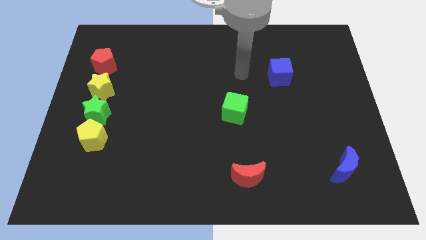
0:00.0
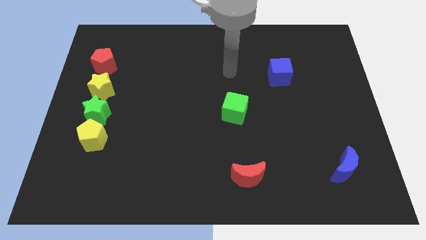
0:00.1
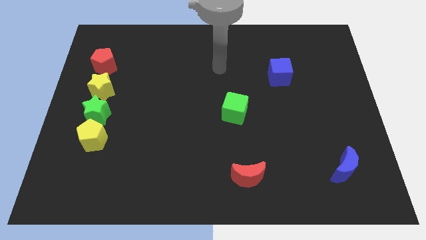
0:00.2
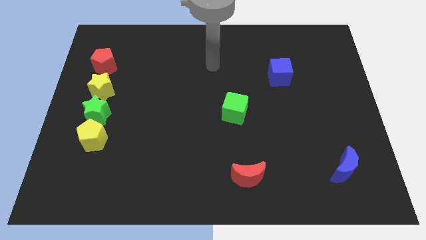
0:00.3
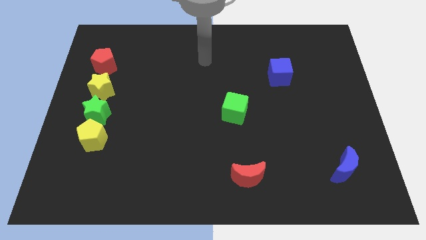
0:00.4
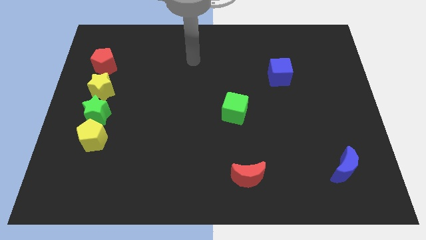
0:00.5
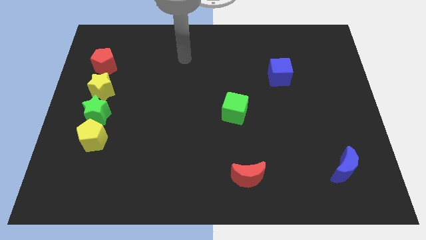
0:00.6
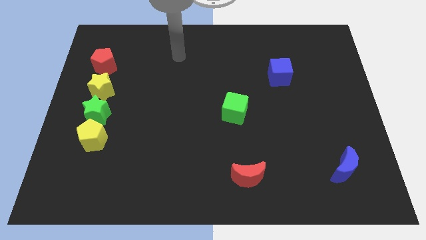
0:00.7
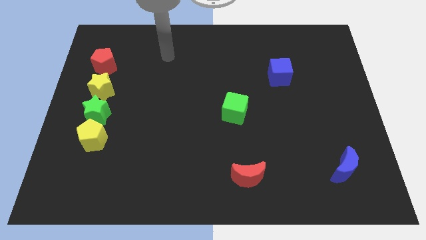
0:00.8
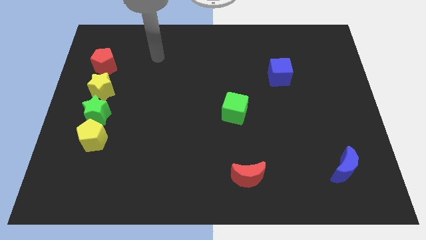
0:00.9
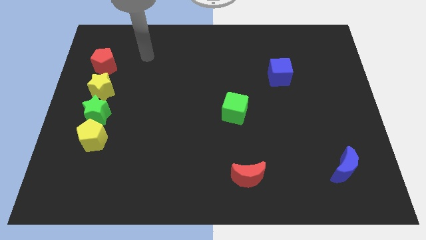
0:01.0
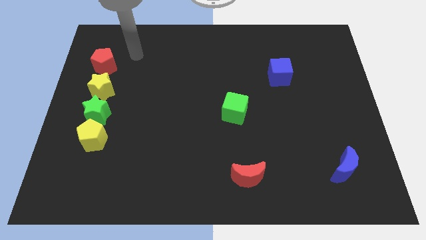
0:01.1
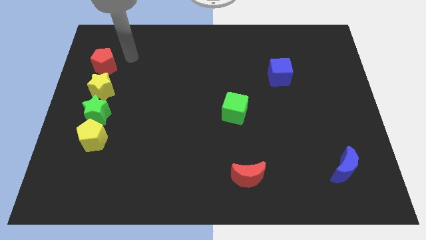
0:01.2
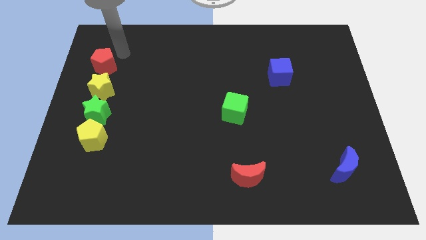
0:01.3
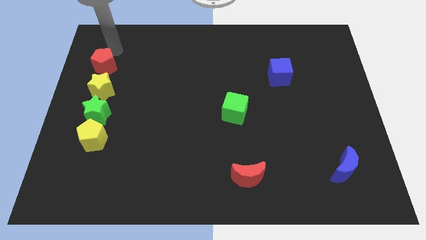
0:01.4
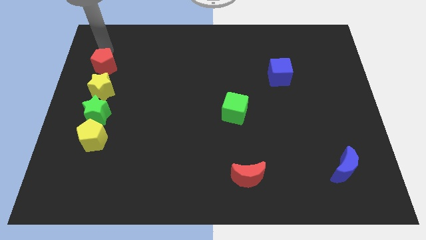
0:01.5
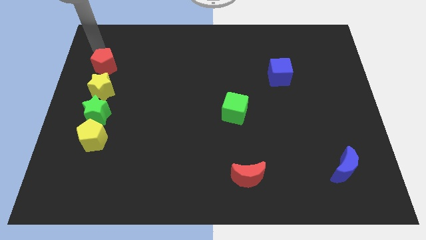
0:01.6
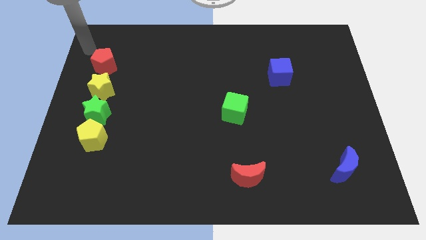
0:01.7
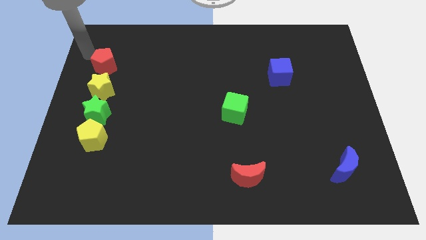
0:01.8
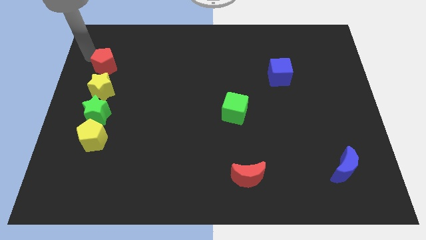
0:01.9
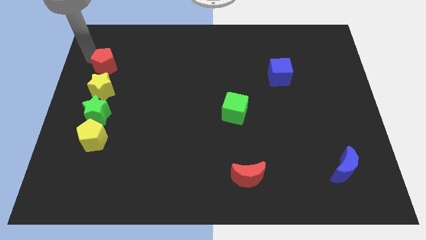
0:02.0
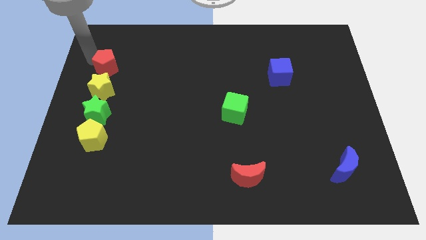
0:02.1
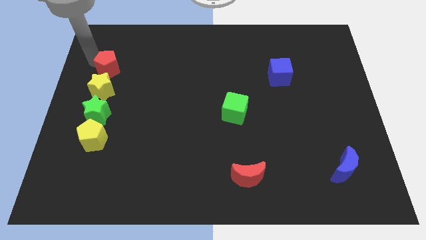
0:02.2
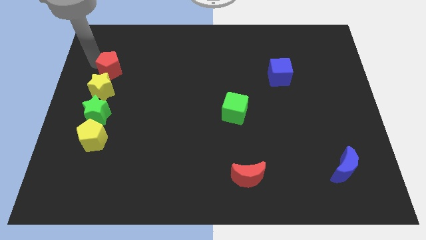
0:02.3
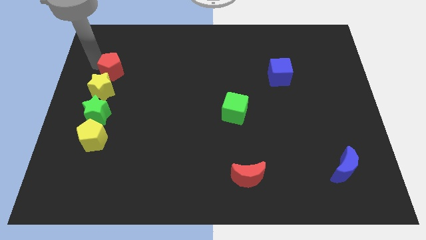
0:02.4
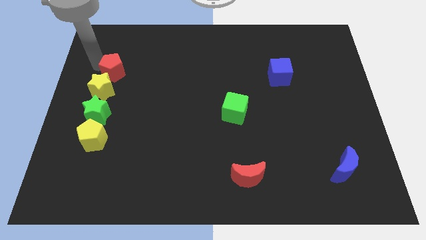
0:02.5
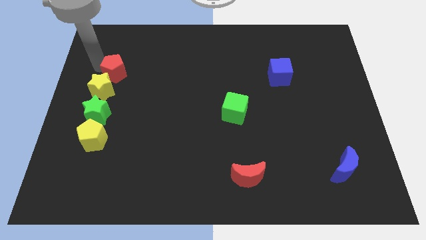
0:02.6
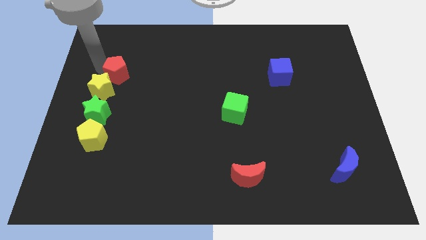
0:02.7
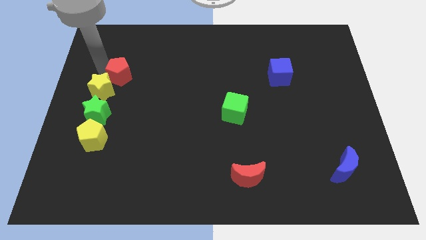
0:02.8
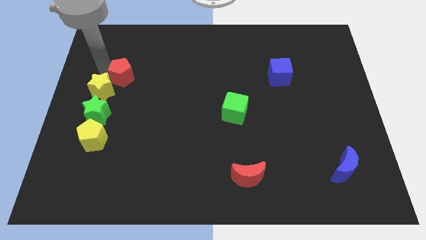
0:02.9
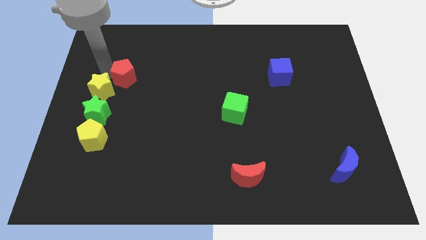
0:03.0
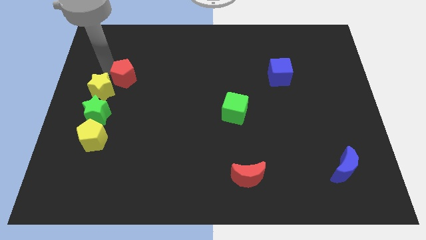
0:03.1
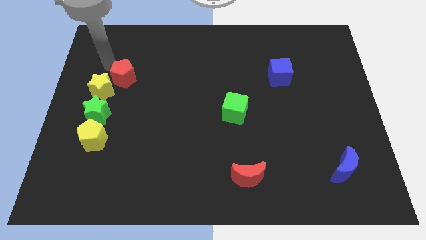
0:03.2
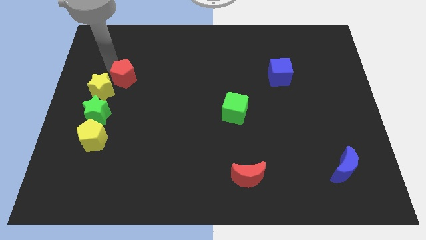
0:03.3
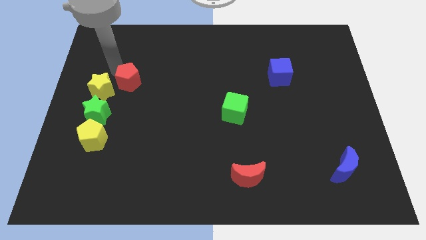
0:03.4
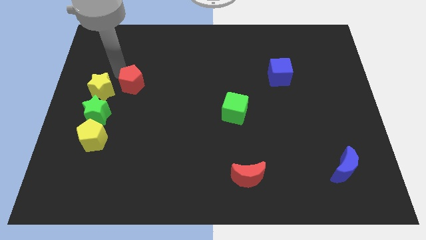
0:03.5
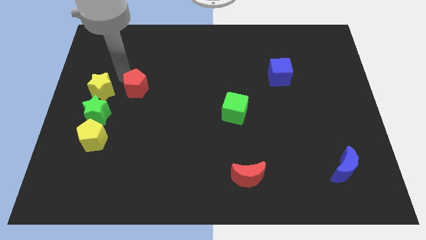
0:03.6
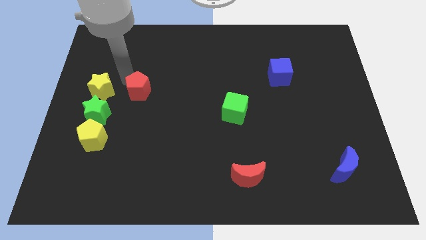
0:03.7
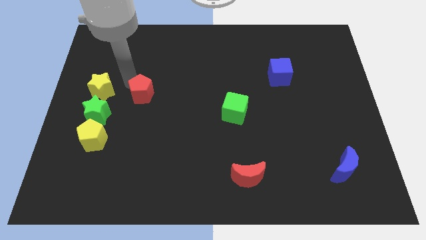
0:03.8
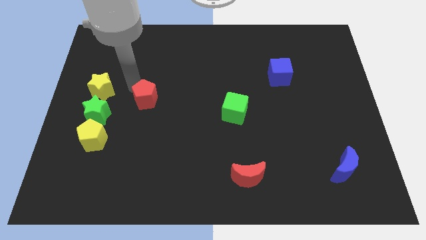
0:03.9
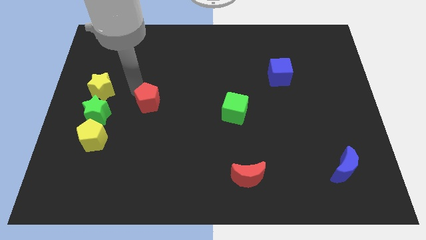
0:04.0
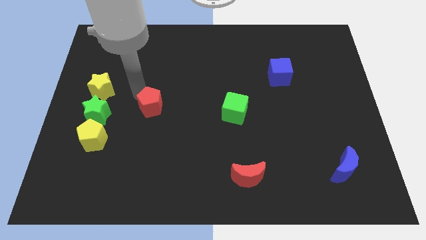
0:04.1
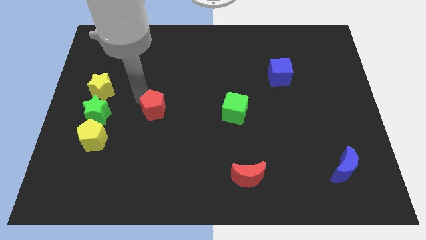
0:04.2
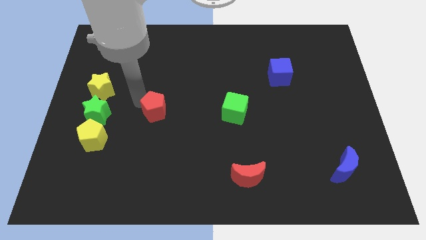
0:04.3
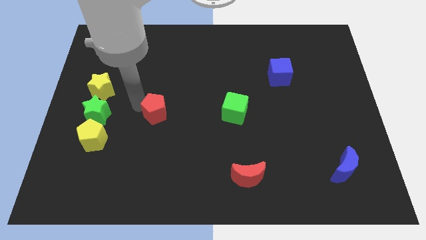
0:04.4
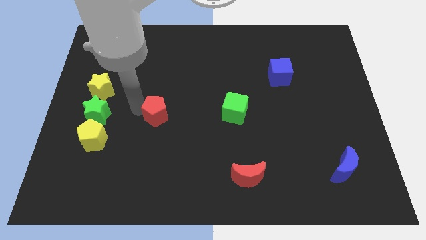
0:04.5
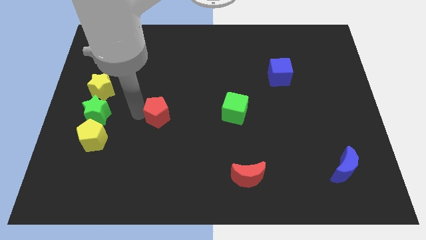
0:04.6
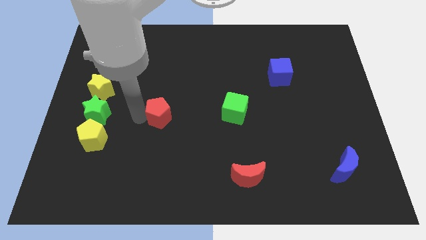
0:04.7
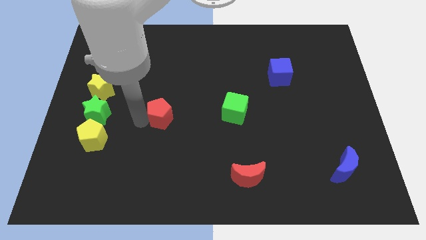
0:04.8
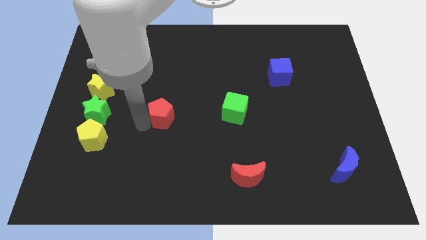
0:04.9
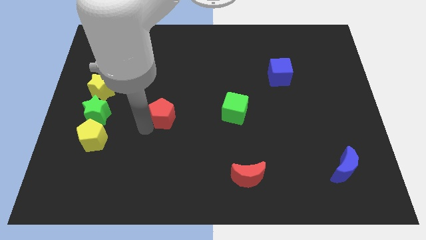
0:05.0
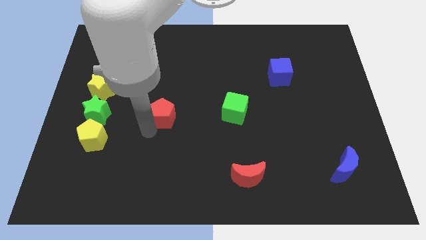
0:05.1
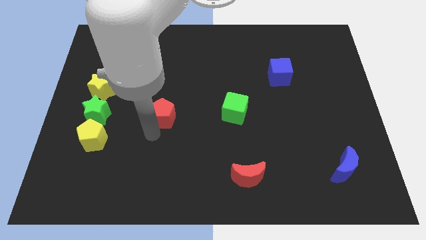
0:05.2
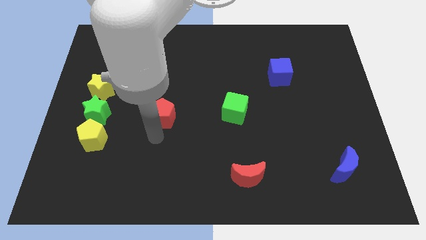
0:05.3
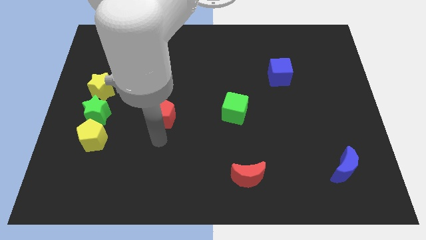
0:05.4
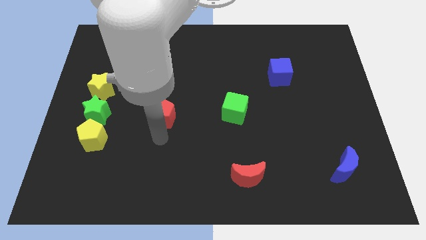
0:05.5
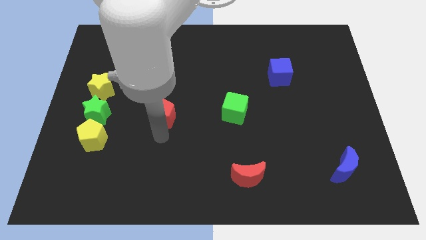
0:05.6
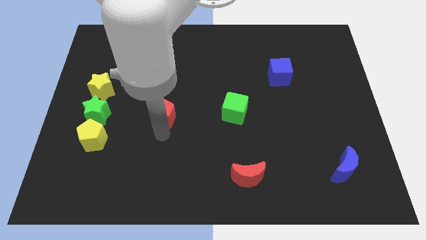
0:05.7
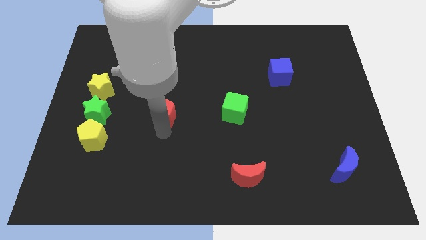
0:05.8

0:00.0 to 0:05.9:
push the red pentagon to the left side of the green cube

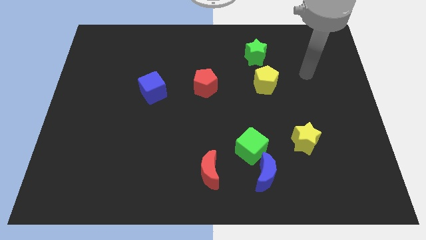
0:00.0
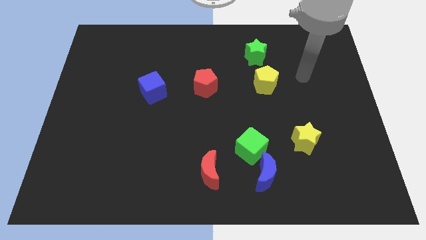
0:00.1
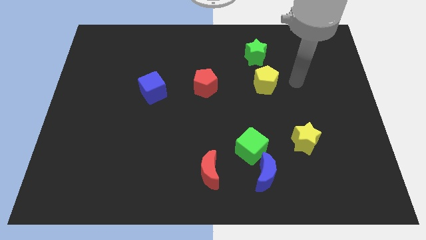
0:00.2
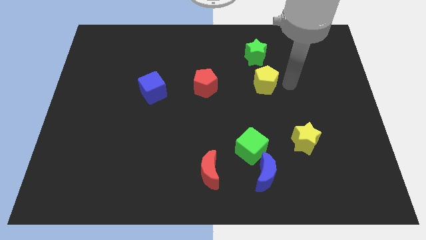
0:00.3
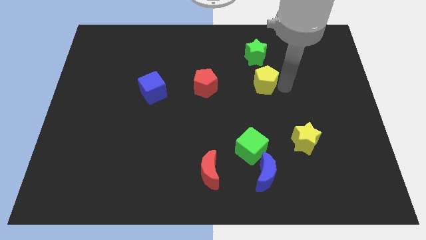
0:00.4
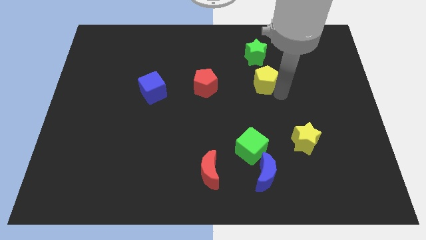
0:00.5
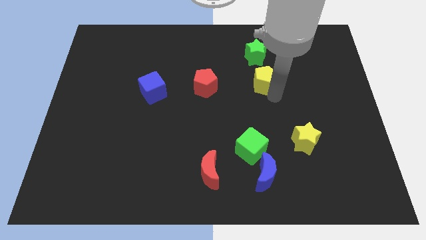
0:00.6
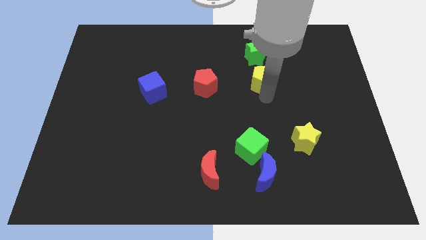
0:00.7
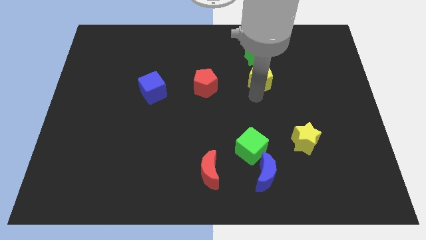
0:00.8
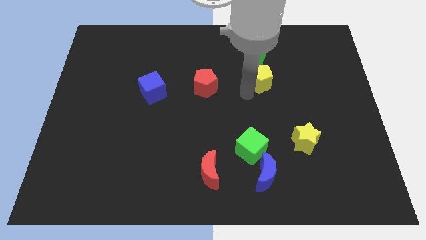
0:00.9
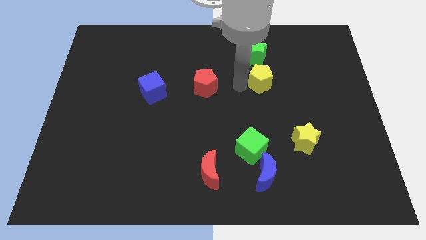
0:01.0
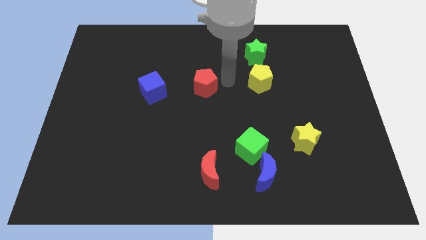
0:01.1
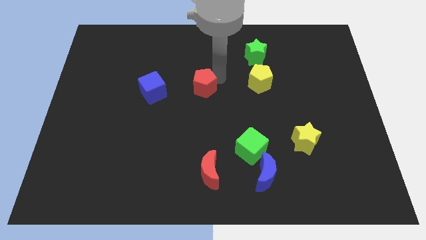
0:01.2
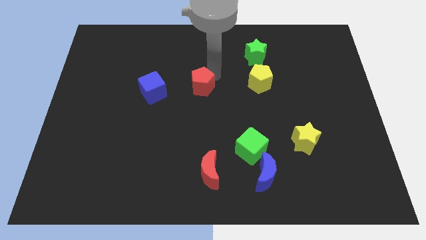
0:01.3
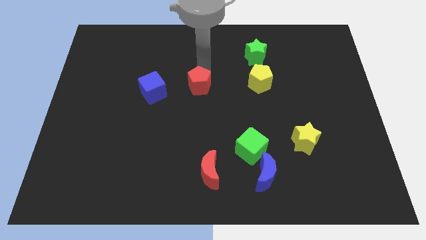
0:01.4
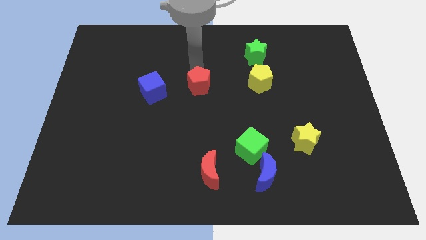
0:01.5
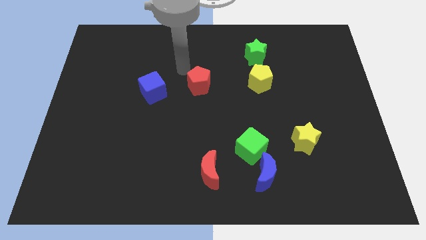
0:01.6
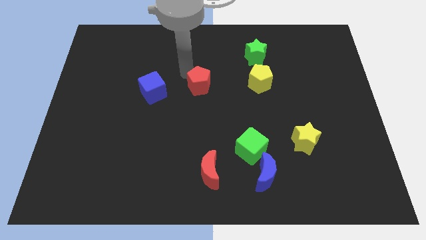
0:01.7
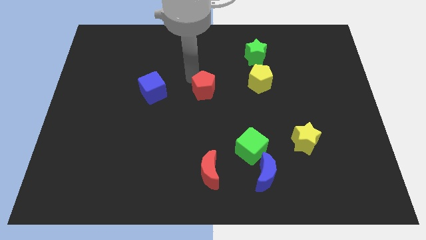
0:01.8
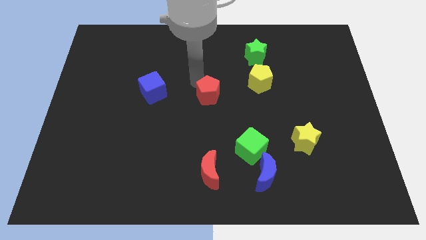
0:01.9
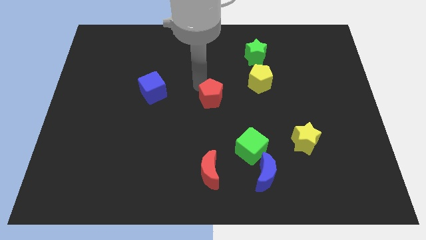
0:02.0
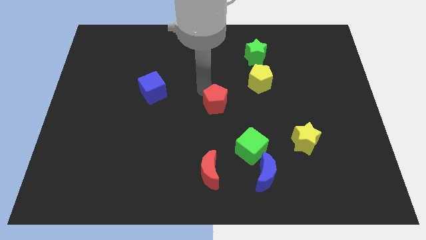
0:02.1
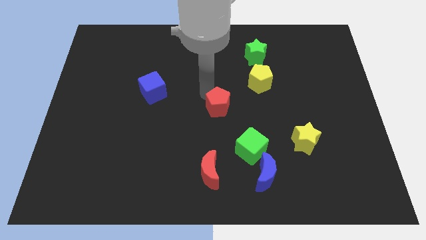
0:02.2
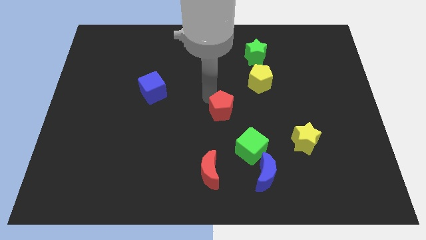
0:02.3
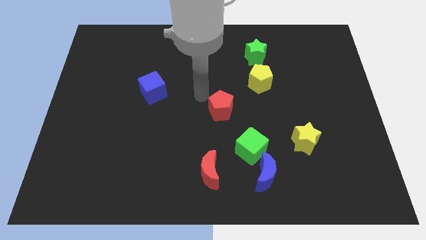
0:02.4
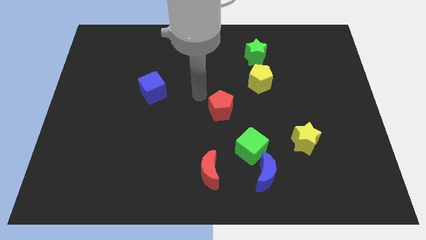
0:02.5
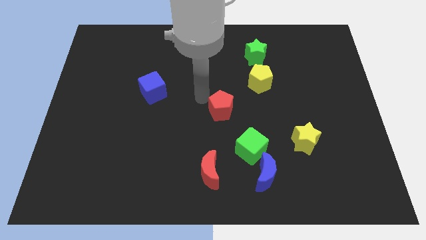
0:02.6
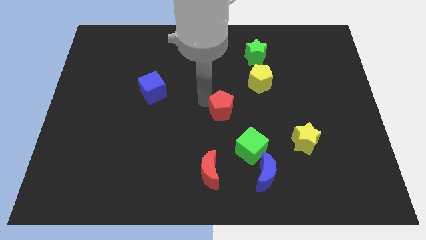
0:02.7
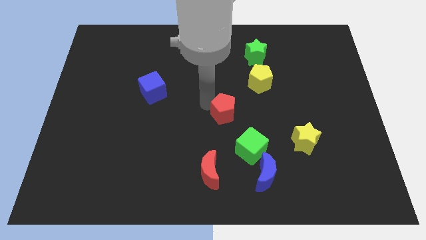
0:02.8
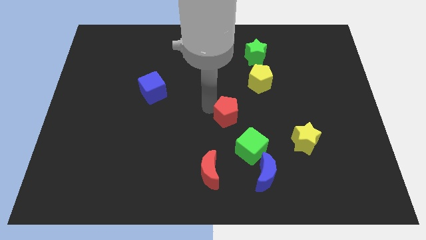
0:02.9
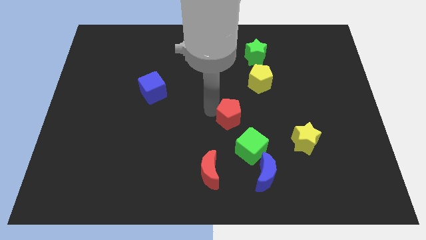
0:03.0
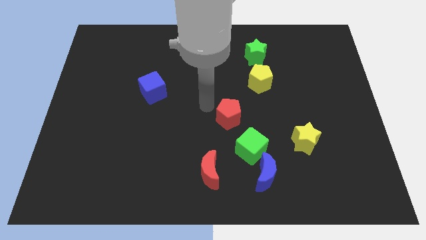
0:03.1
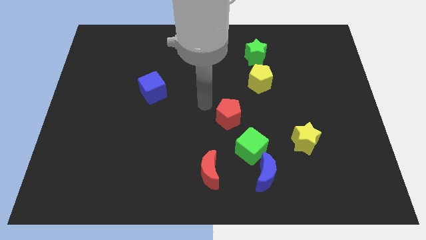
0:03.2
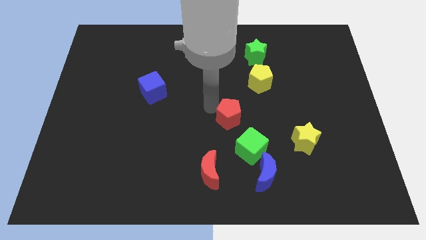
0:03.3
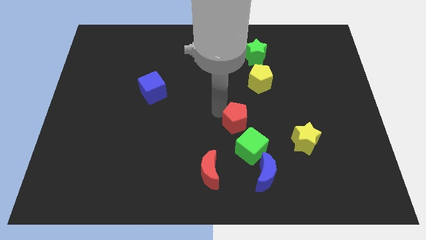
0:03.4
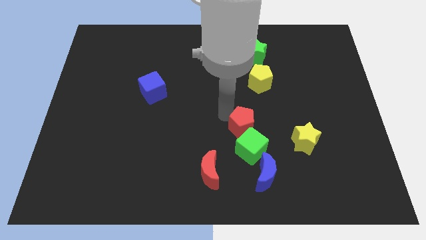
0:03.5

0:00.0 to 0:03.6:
push the red pentagon to the top side of the blue moon
